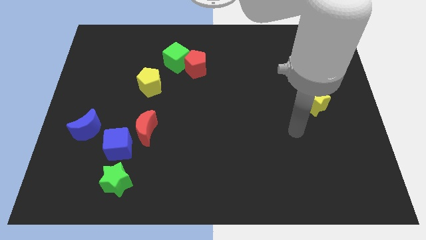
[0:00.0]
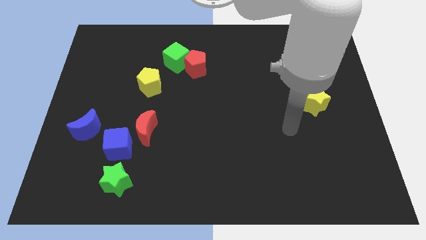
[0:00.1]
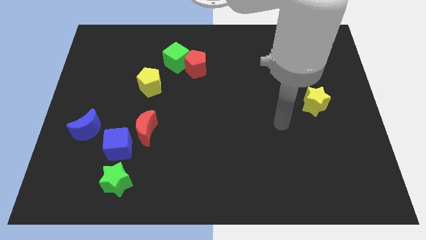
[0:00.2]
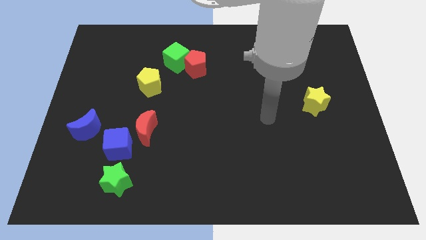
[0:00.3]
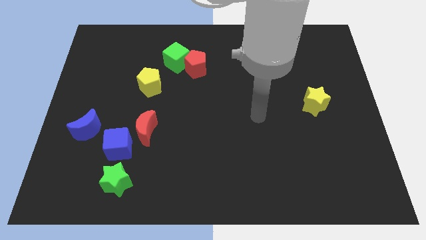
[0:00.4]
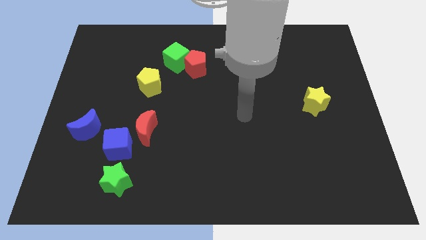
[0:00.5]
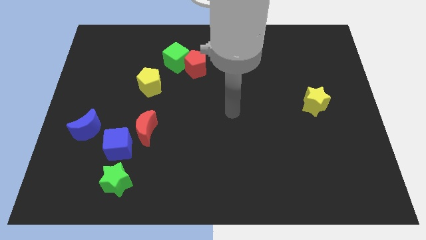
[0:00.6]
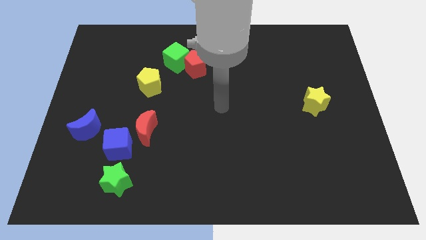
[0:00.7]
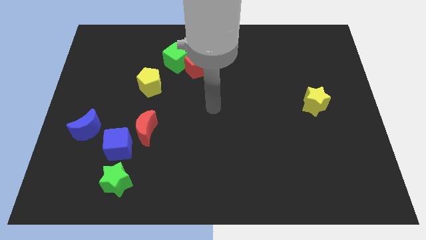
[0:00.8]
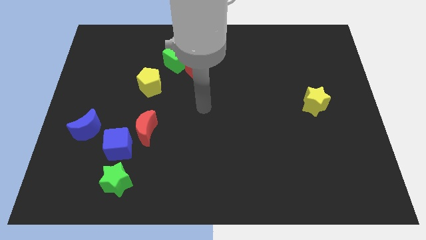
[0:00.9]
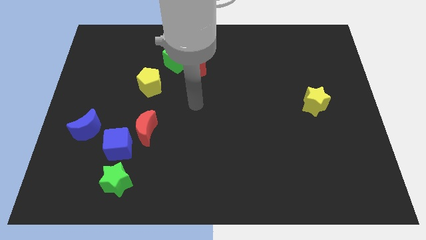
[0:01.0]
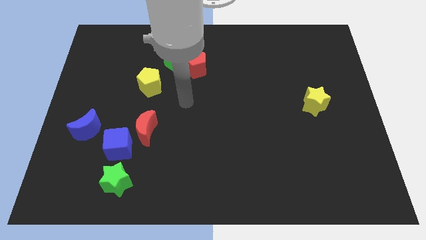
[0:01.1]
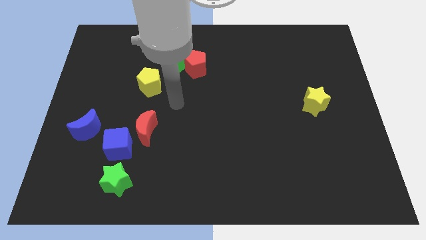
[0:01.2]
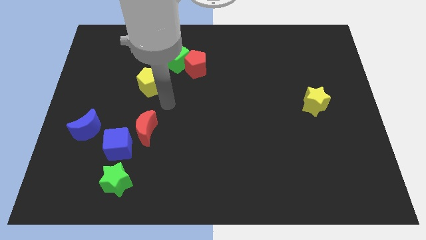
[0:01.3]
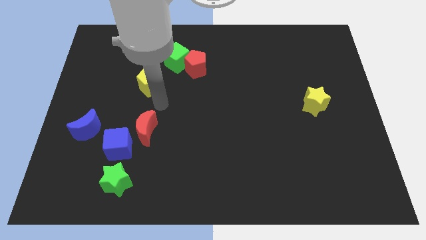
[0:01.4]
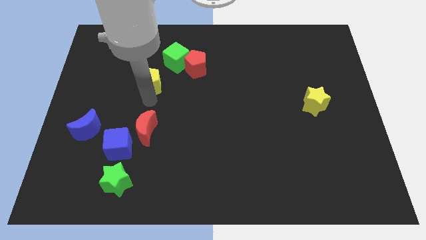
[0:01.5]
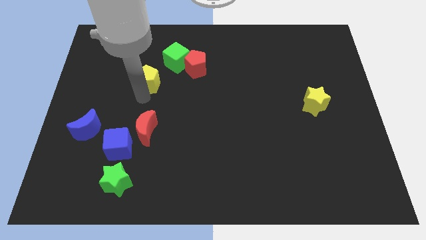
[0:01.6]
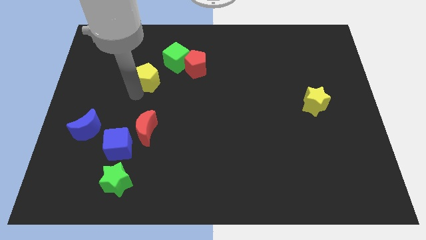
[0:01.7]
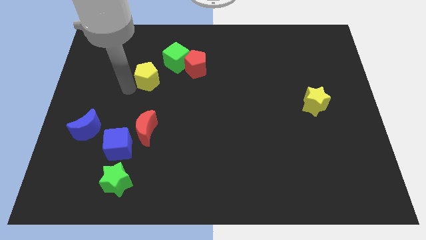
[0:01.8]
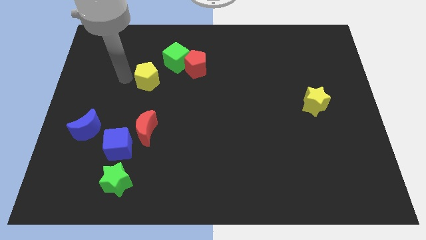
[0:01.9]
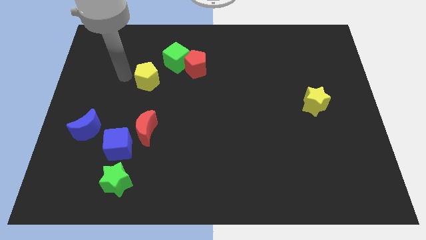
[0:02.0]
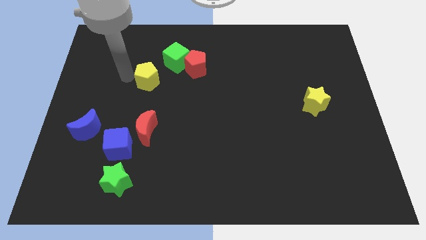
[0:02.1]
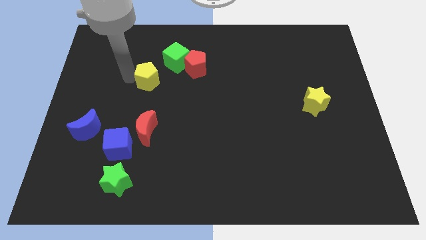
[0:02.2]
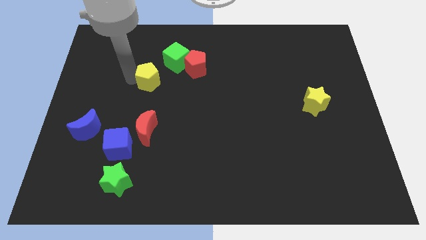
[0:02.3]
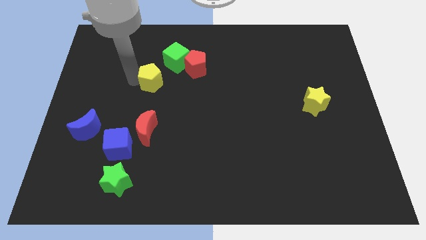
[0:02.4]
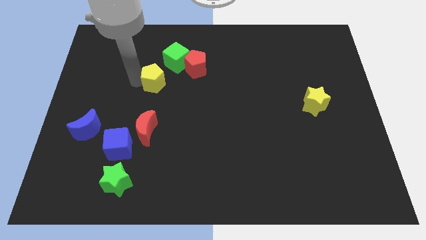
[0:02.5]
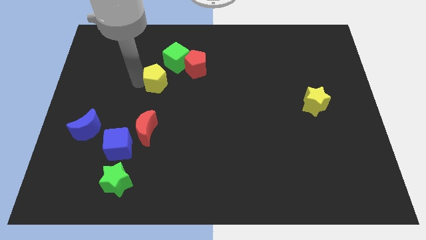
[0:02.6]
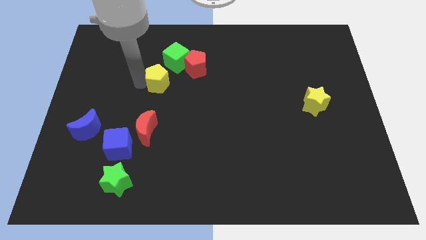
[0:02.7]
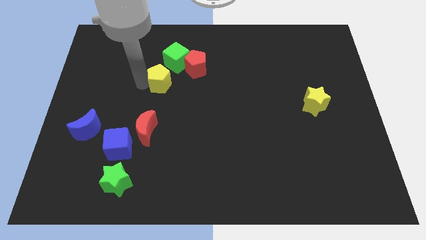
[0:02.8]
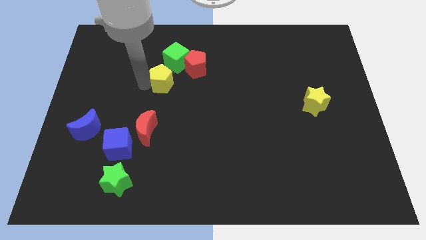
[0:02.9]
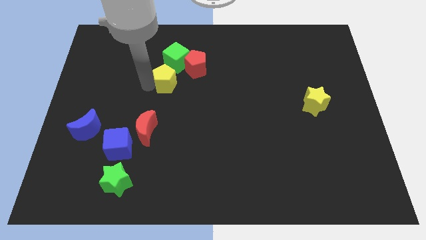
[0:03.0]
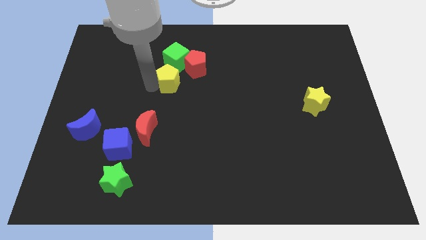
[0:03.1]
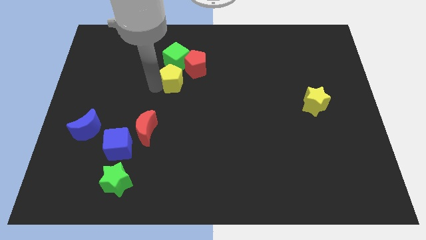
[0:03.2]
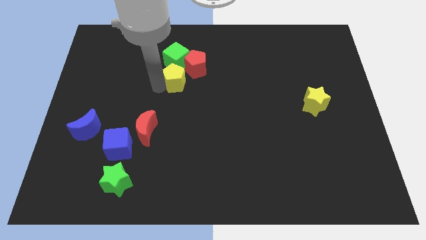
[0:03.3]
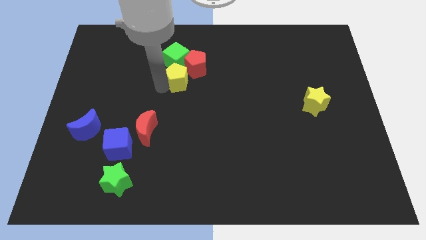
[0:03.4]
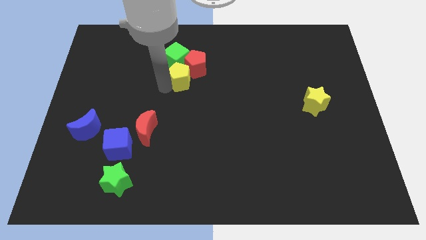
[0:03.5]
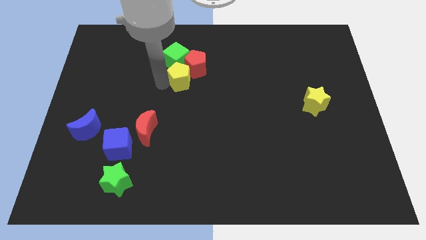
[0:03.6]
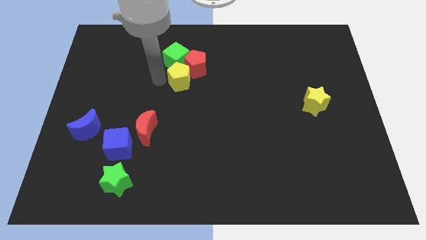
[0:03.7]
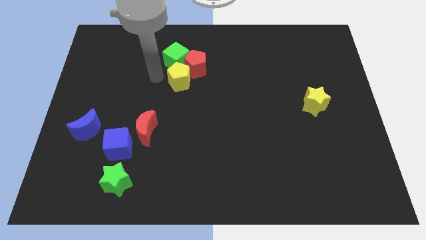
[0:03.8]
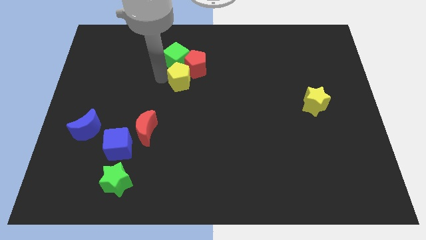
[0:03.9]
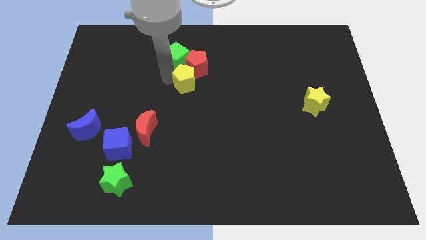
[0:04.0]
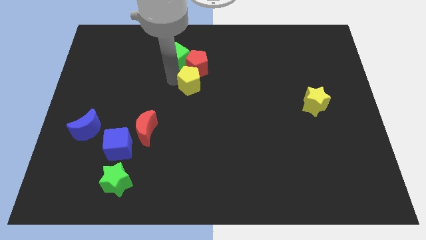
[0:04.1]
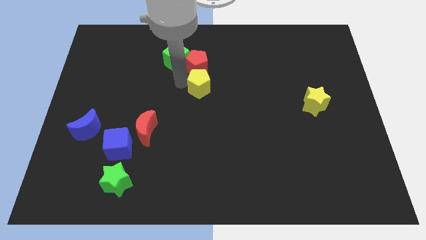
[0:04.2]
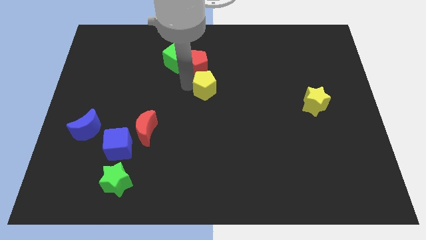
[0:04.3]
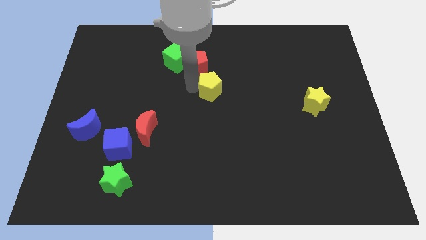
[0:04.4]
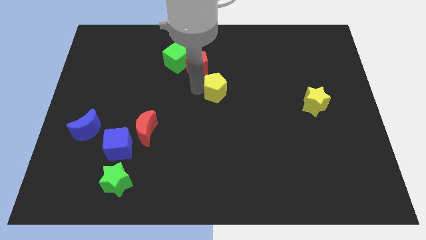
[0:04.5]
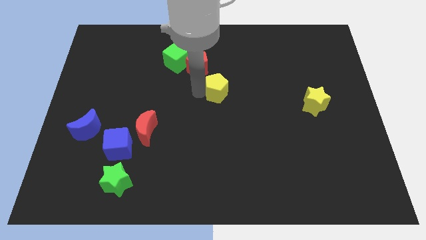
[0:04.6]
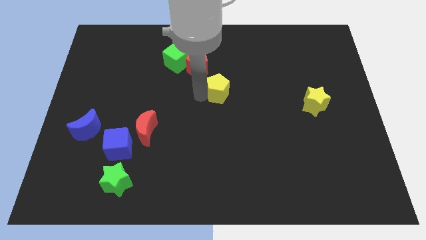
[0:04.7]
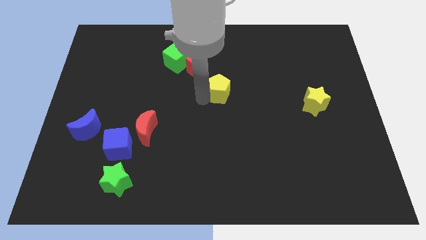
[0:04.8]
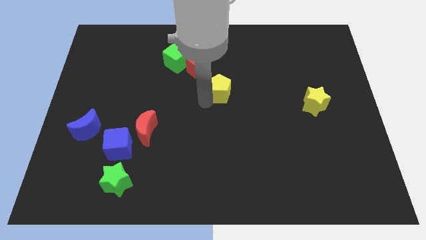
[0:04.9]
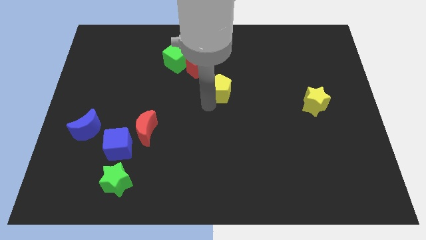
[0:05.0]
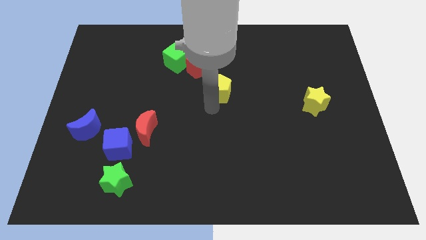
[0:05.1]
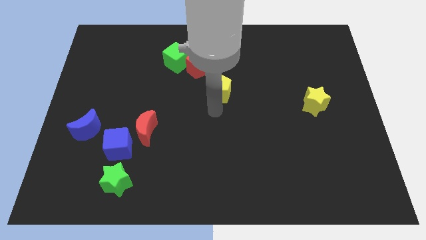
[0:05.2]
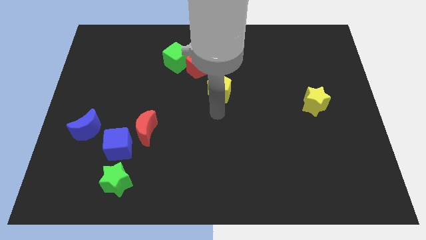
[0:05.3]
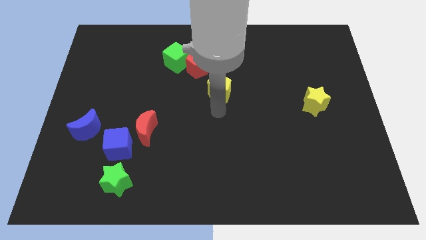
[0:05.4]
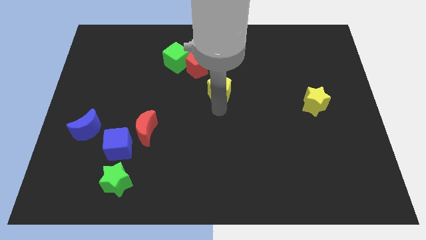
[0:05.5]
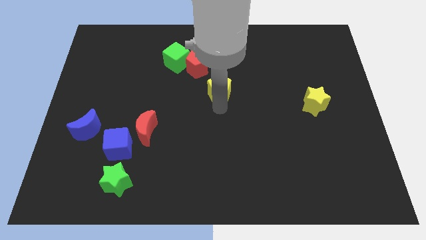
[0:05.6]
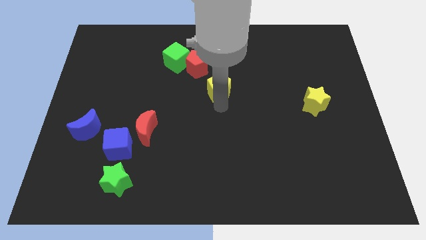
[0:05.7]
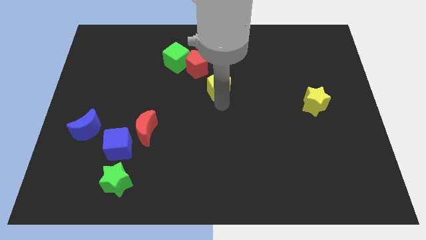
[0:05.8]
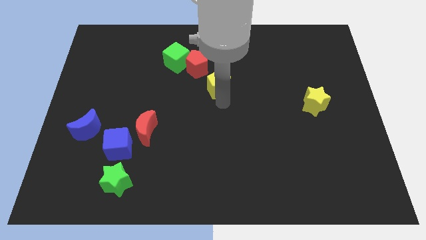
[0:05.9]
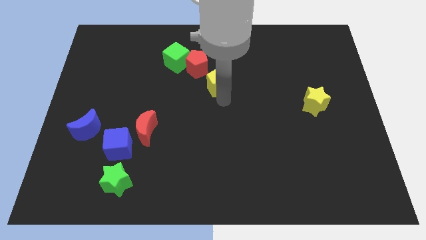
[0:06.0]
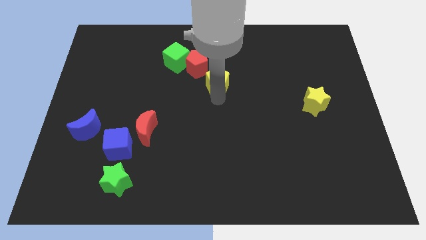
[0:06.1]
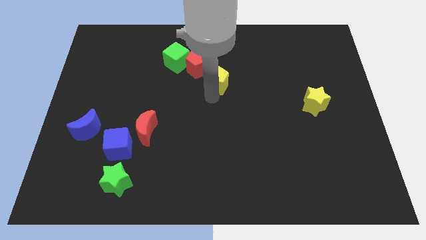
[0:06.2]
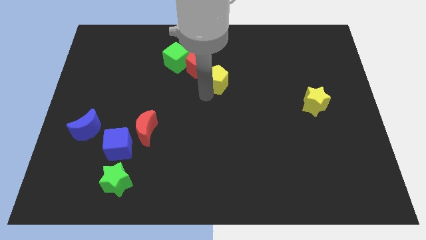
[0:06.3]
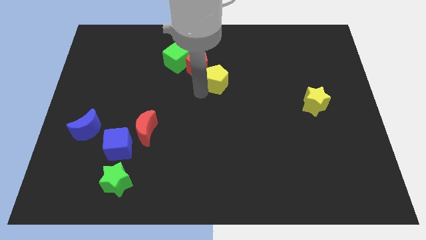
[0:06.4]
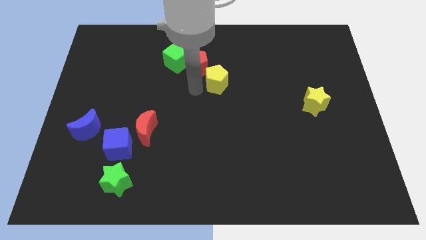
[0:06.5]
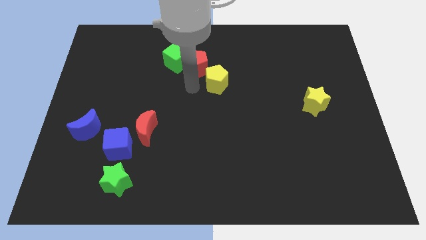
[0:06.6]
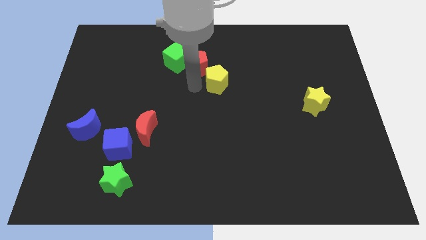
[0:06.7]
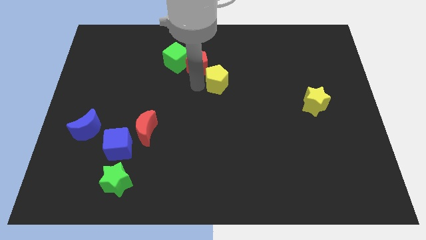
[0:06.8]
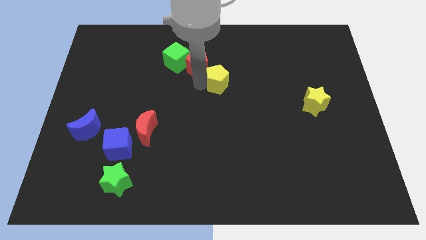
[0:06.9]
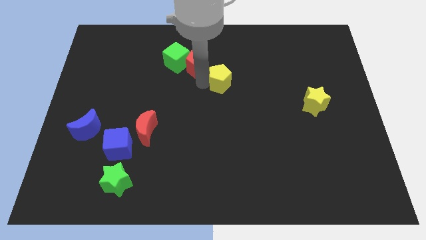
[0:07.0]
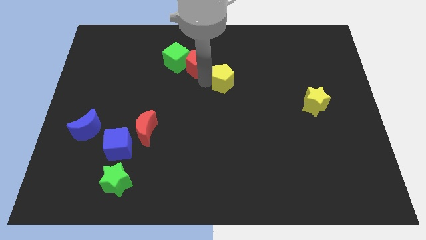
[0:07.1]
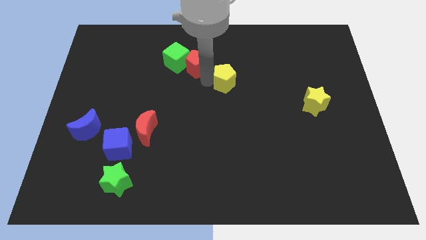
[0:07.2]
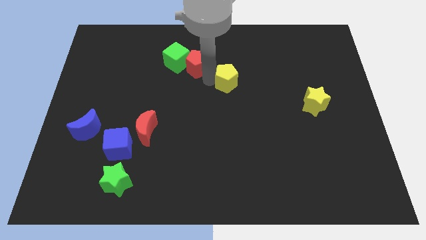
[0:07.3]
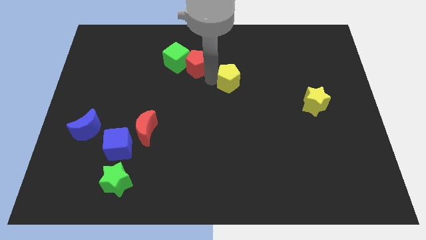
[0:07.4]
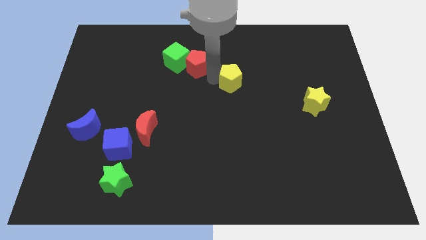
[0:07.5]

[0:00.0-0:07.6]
push the yellow pentagon right

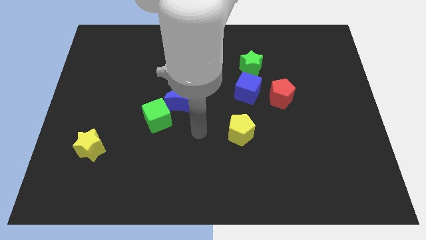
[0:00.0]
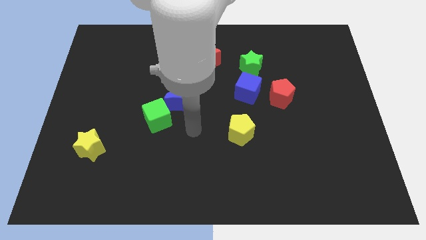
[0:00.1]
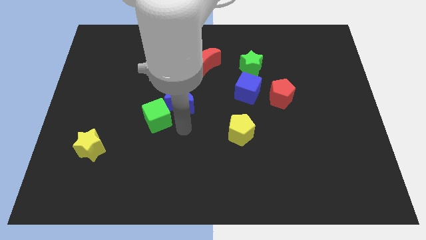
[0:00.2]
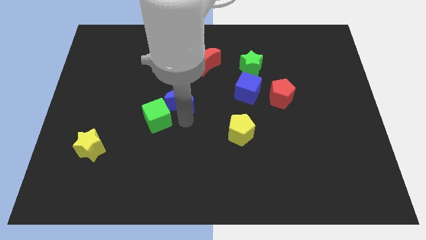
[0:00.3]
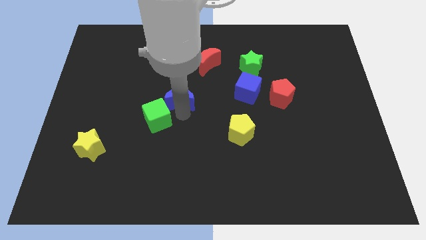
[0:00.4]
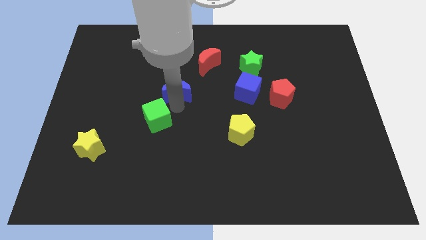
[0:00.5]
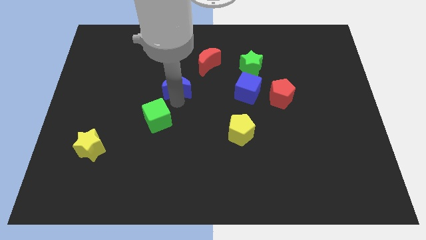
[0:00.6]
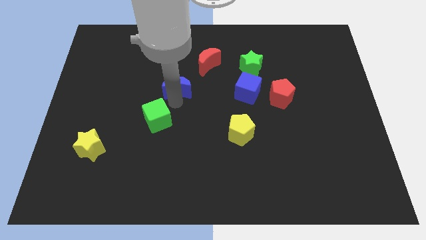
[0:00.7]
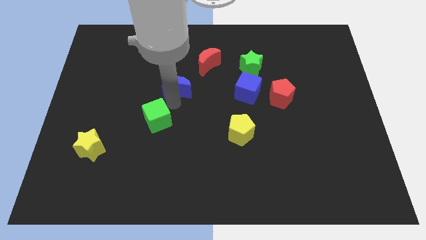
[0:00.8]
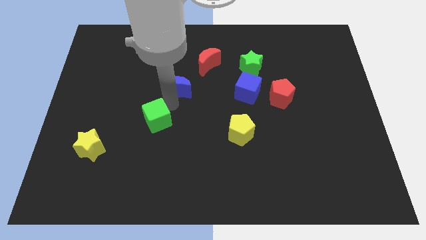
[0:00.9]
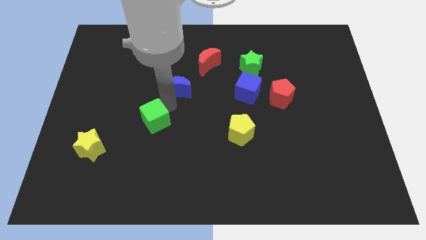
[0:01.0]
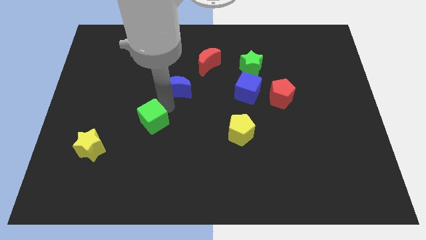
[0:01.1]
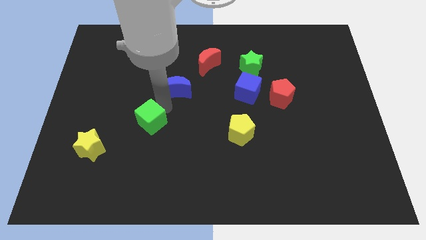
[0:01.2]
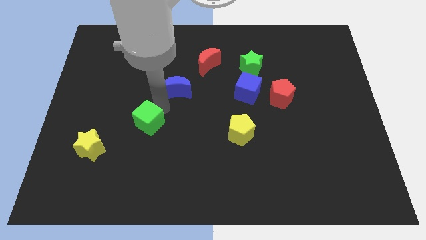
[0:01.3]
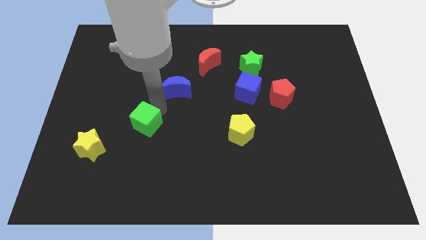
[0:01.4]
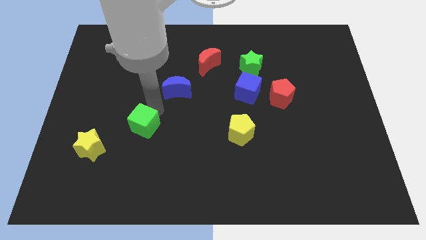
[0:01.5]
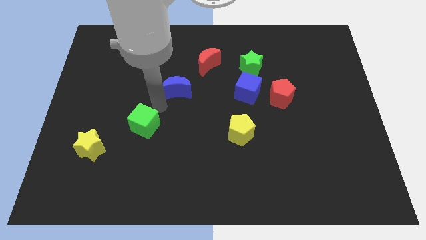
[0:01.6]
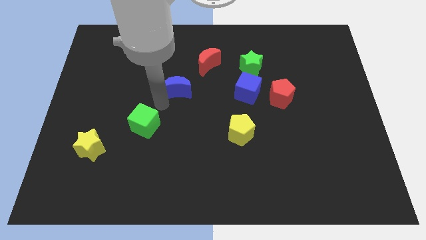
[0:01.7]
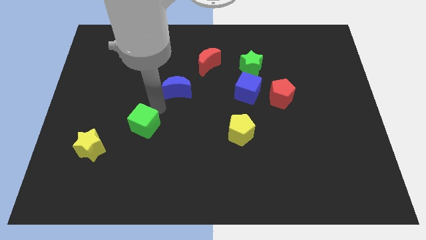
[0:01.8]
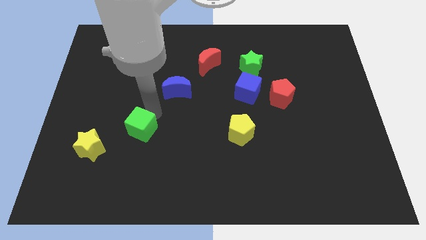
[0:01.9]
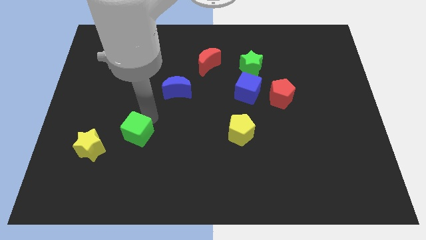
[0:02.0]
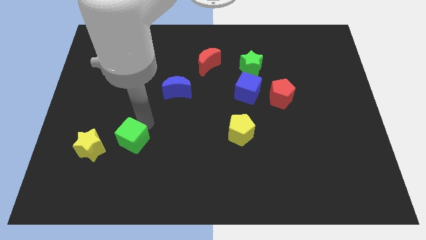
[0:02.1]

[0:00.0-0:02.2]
slightly slide the green cube down and to the left diagonally
